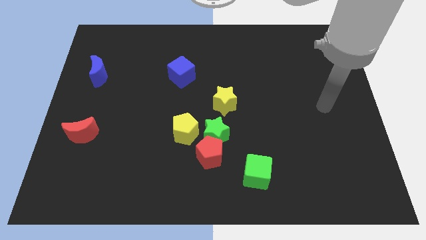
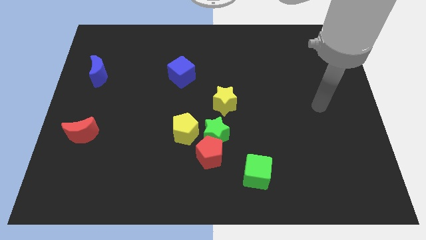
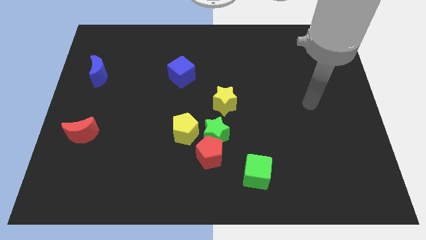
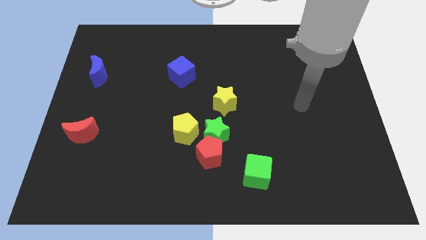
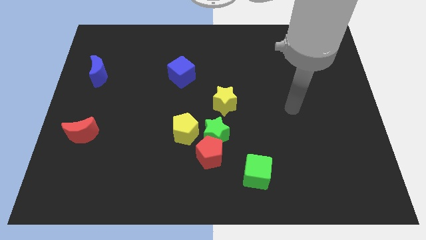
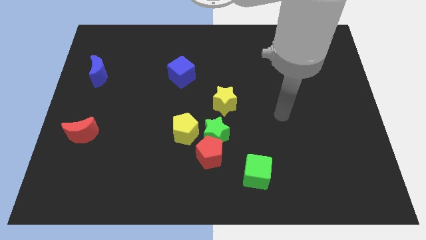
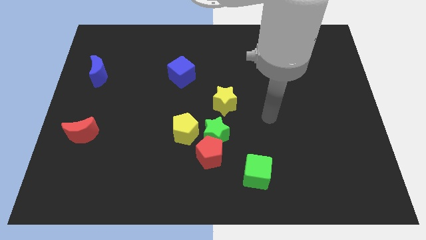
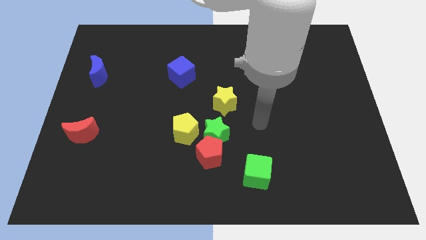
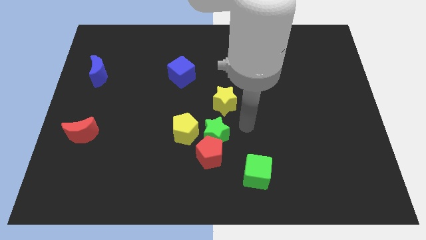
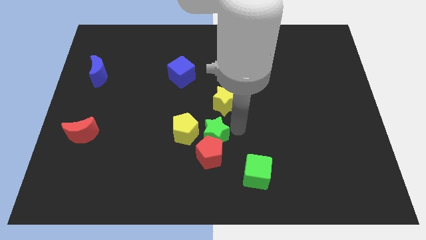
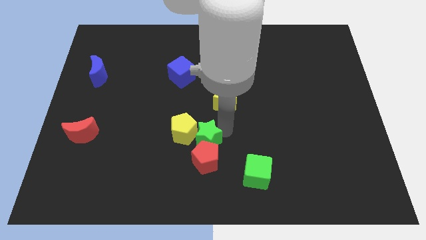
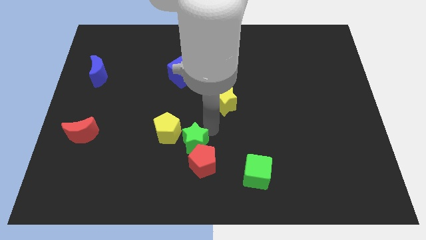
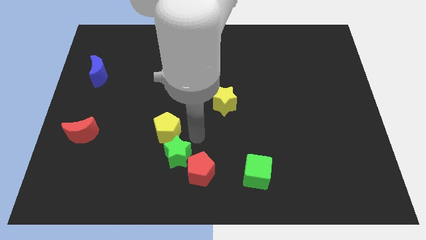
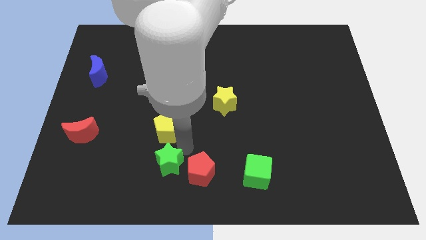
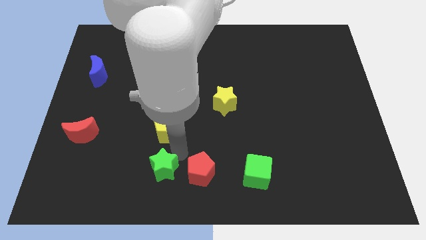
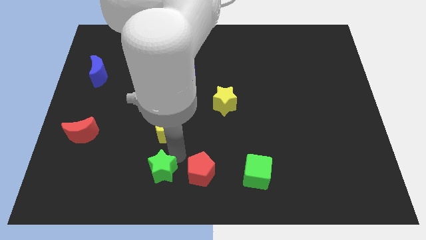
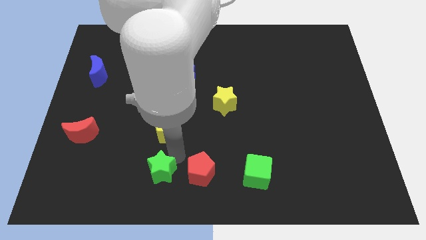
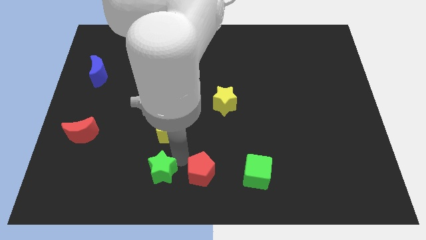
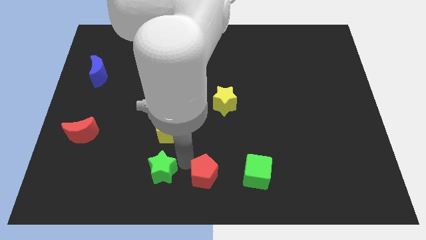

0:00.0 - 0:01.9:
move the red pentagon away from the green star and yellow pentagon

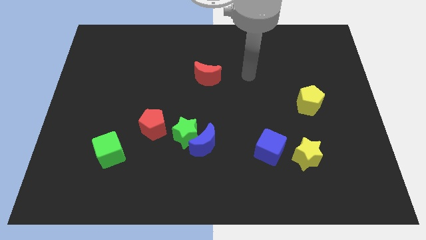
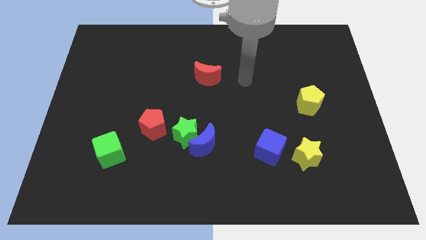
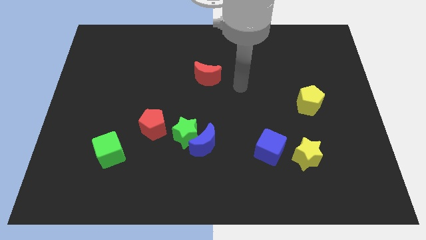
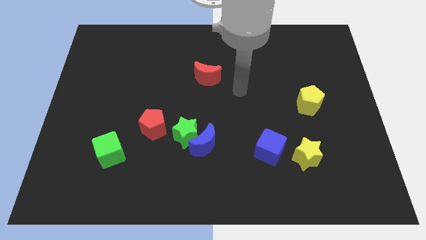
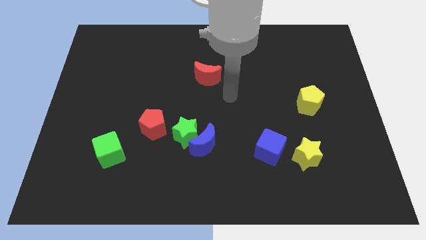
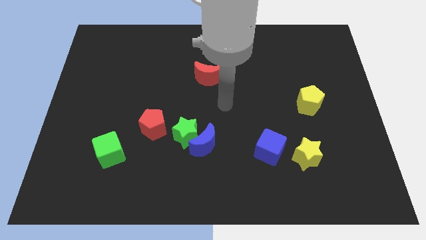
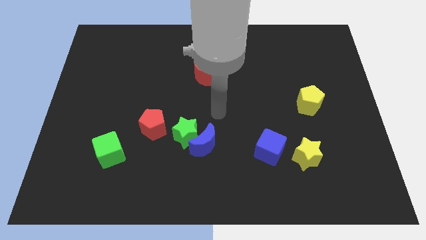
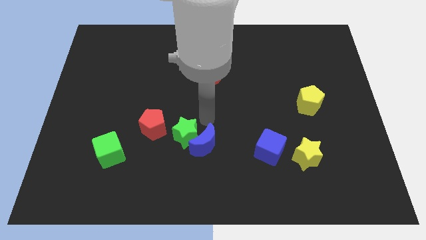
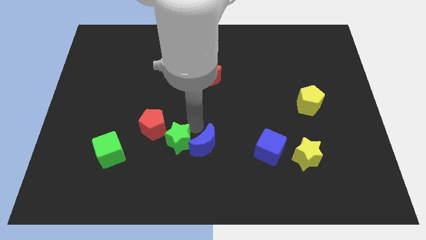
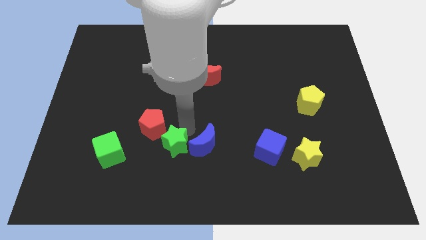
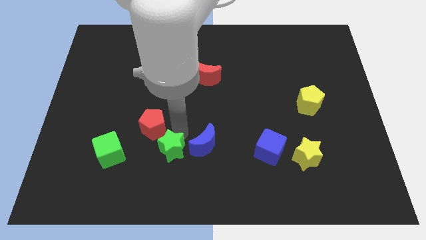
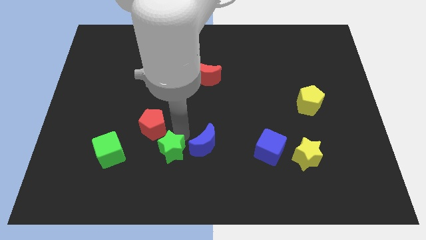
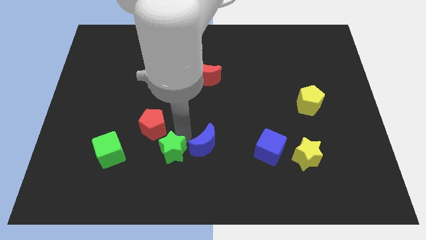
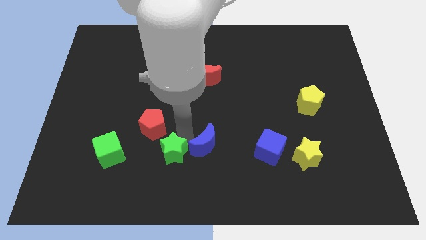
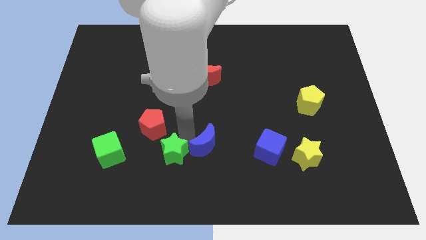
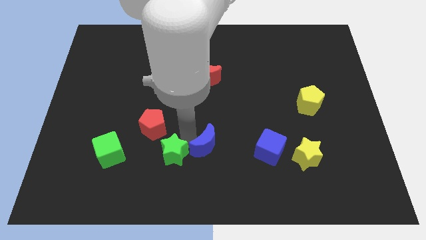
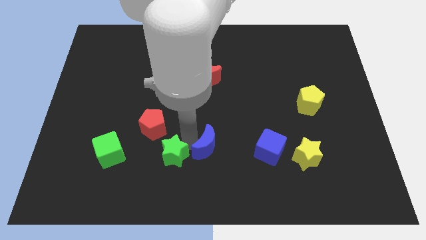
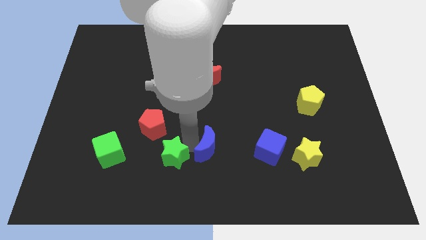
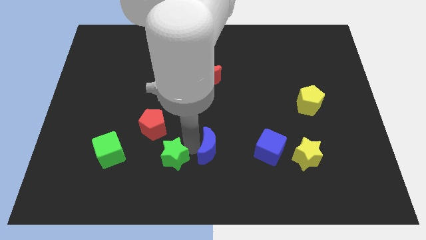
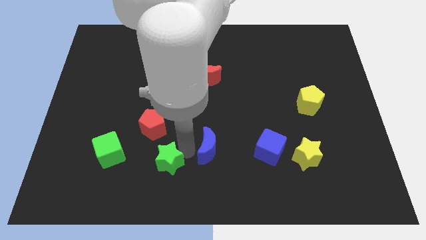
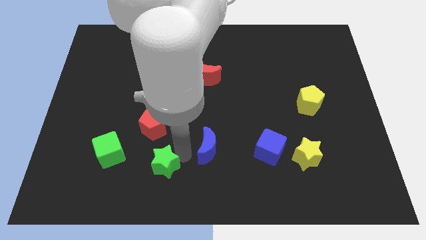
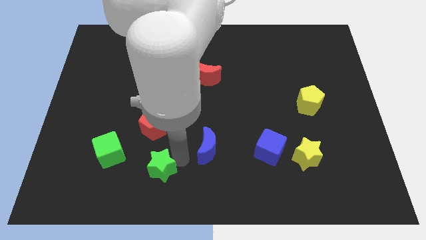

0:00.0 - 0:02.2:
pull the blue moon apart from the green star

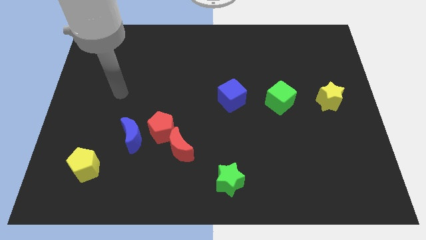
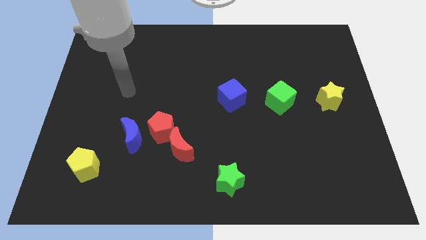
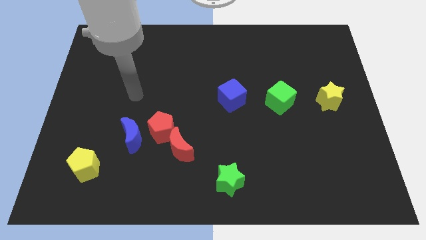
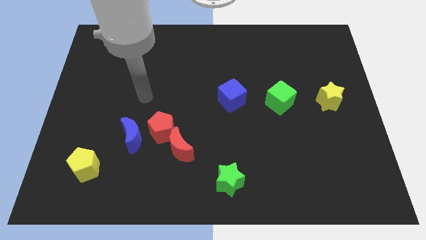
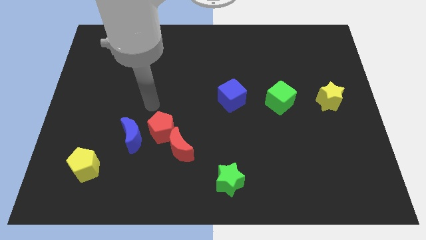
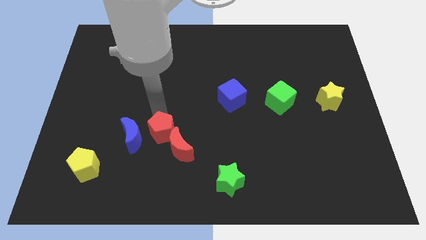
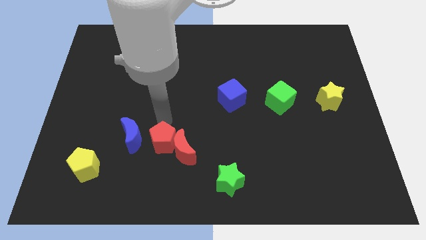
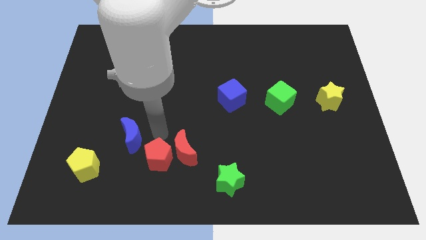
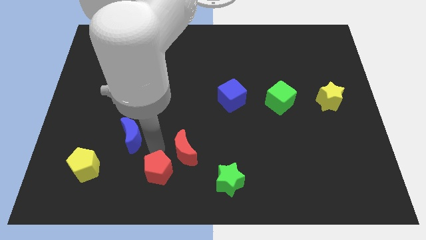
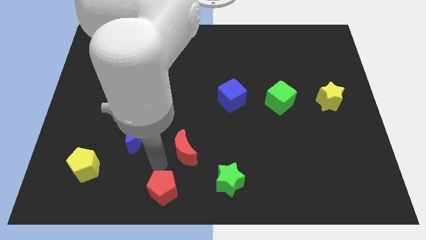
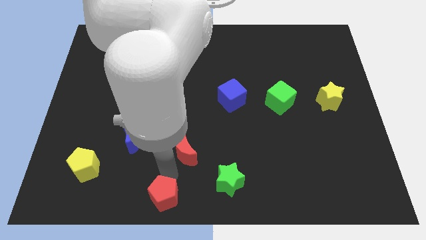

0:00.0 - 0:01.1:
move the red moon away from the red pentagon

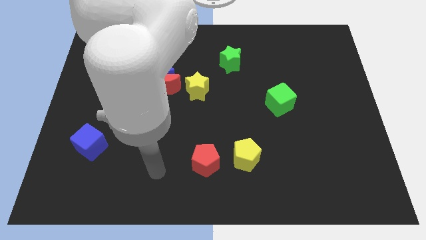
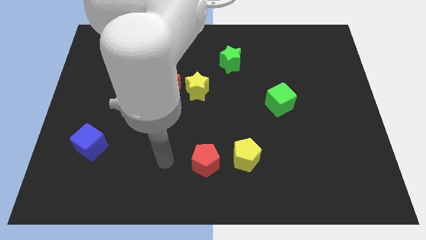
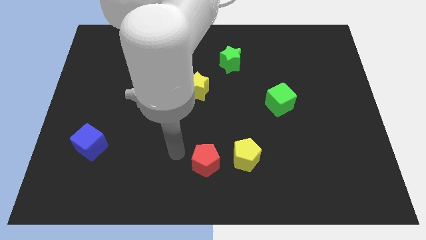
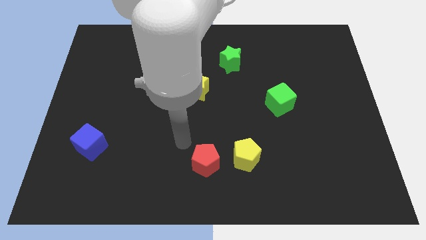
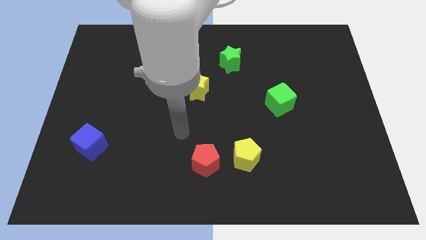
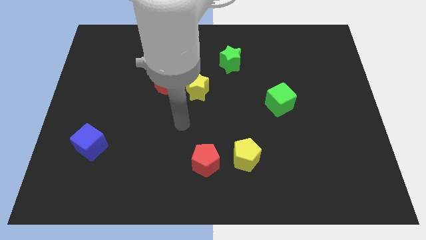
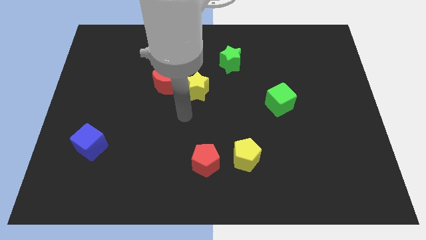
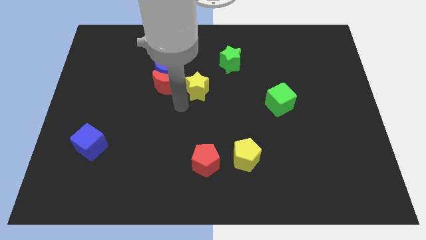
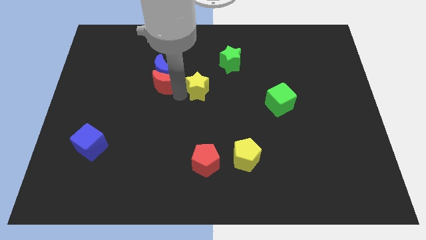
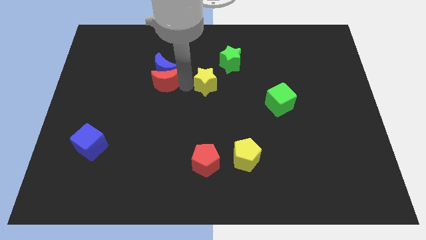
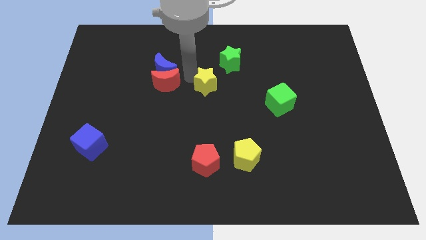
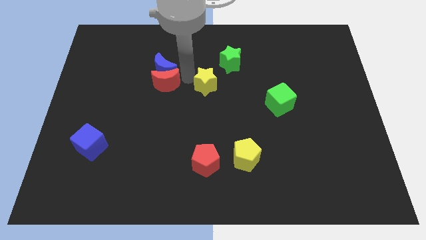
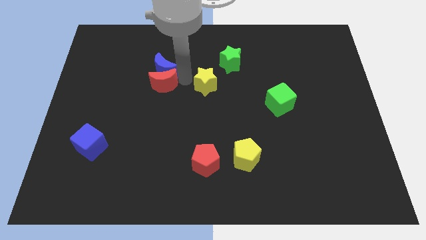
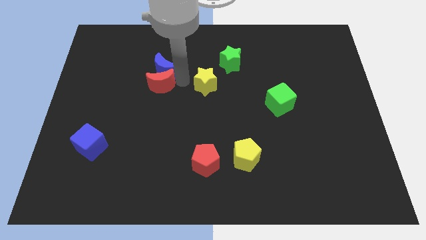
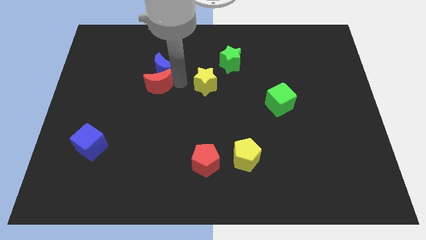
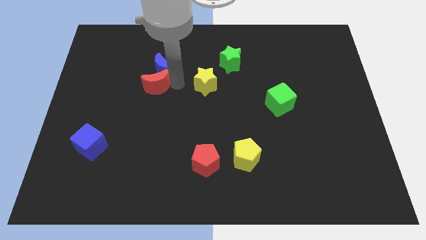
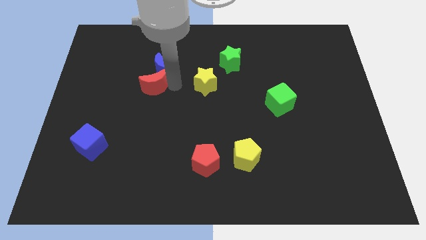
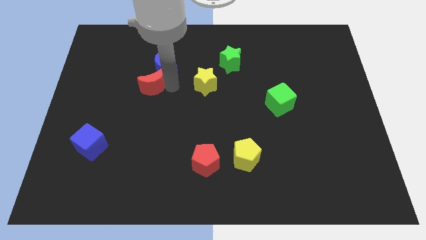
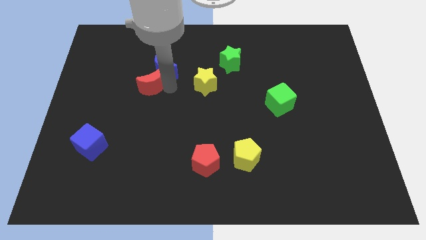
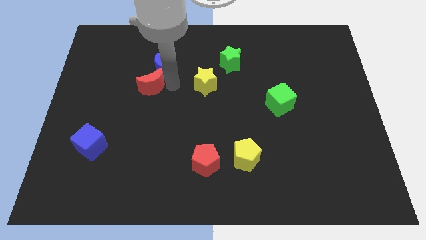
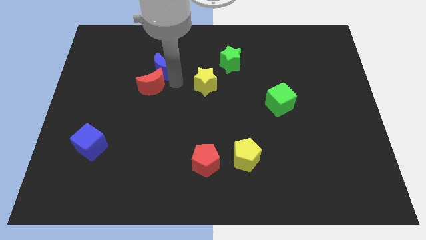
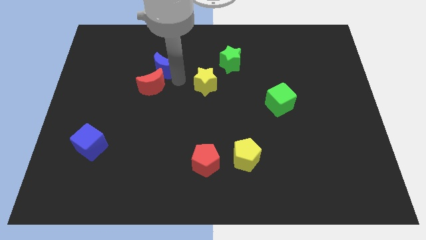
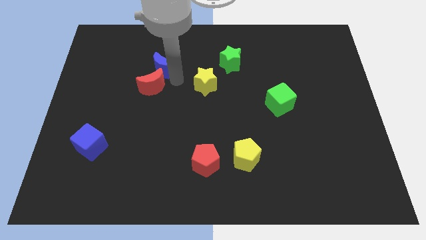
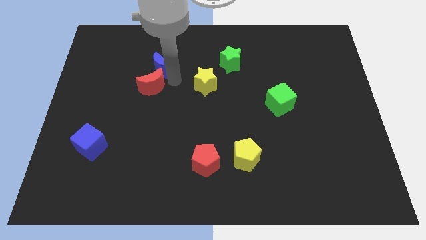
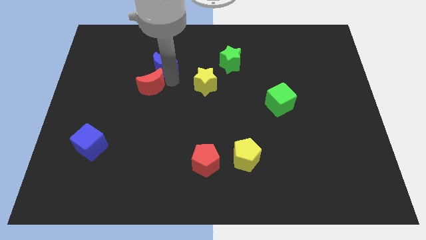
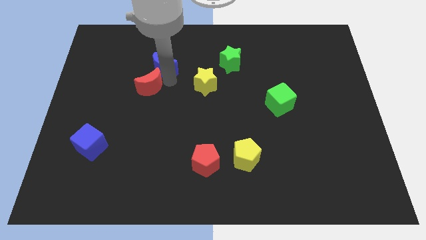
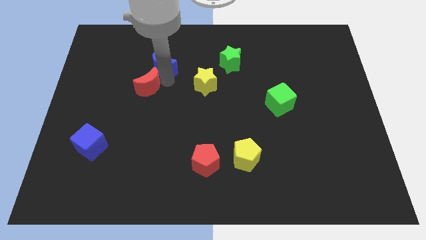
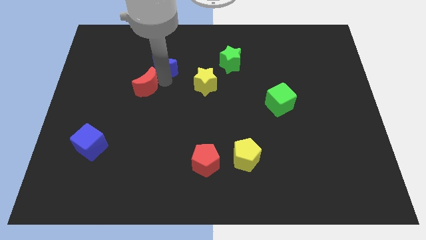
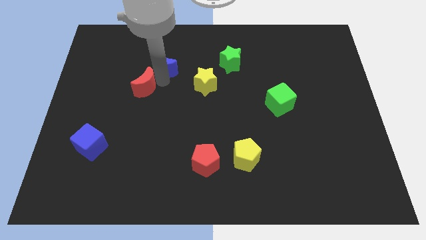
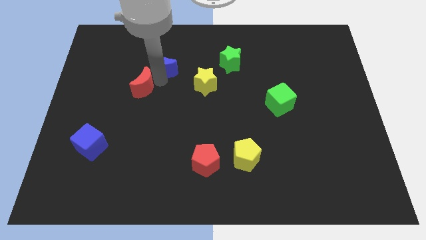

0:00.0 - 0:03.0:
separate the red moon from the blue moon and yellow star

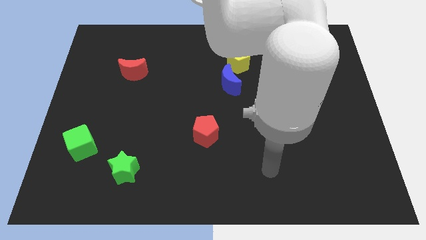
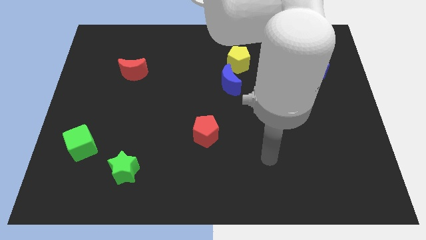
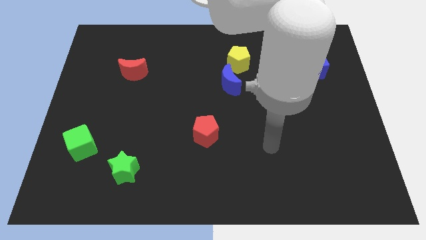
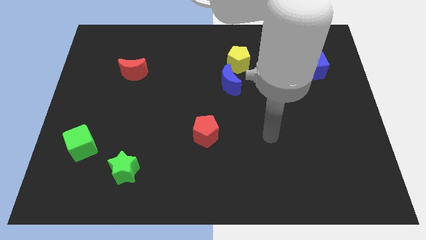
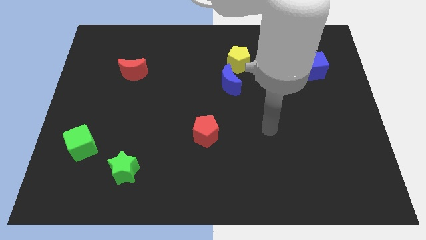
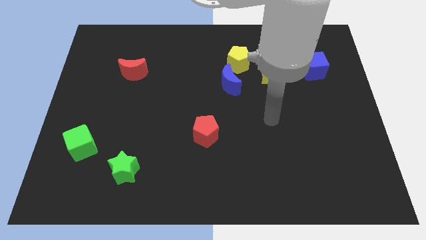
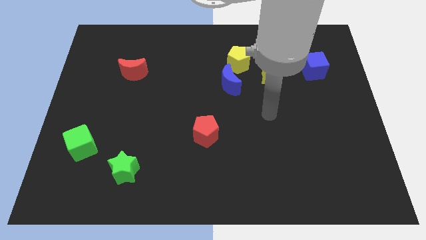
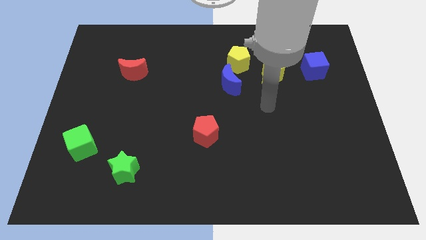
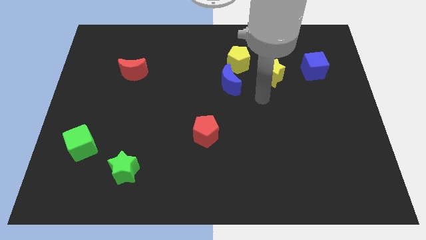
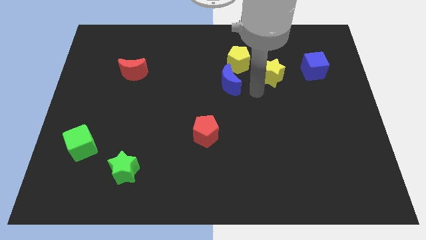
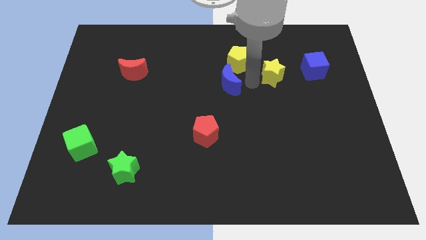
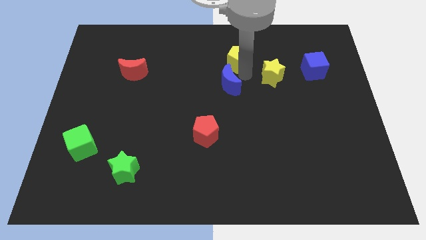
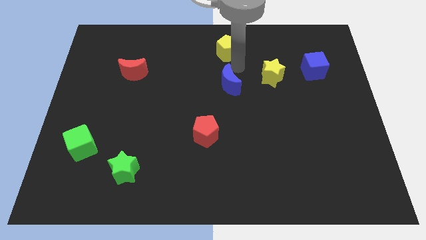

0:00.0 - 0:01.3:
separate the blue moon from the yellow pentagon

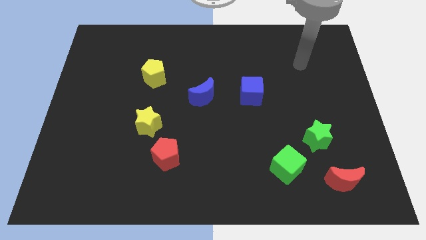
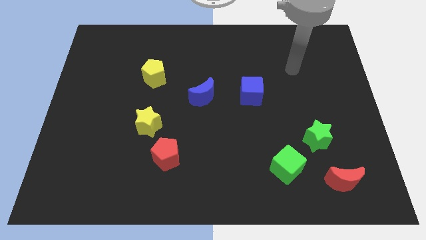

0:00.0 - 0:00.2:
separate the red pentagon from the yellow star
